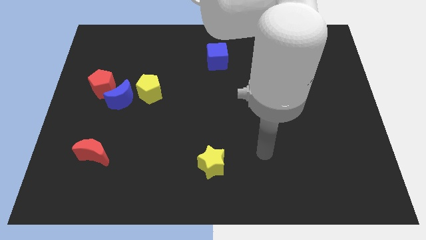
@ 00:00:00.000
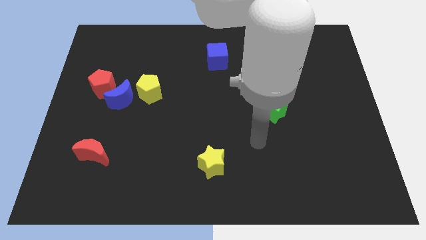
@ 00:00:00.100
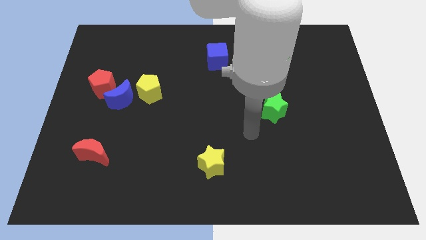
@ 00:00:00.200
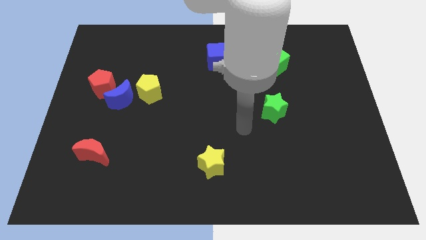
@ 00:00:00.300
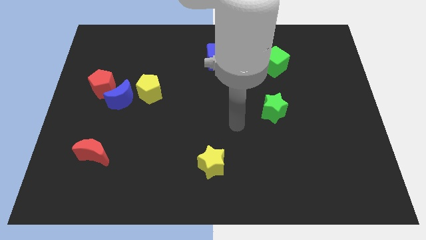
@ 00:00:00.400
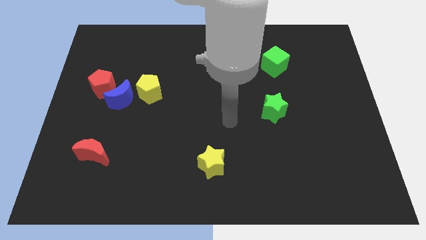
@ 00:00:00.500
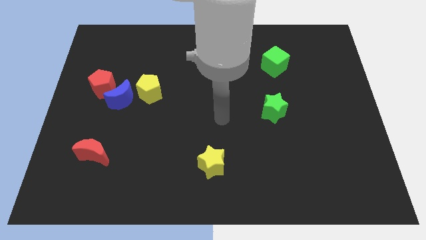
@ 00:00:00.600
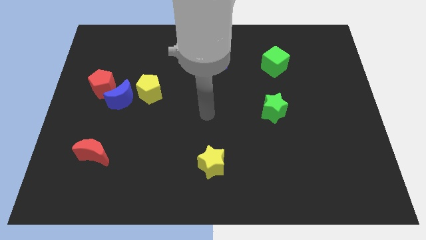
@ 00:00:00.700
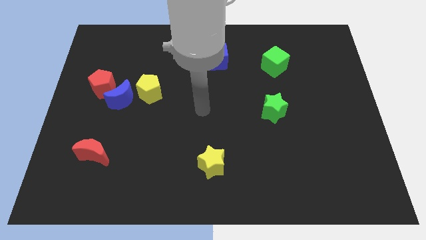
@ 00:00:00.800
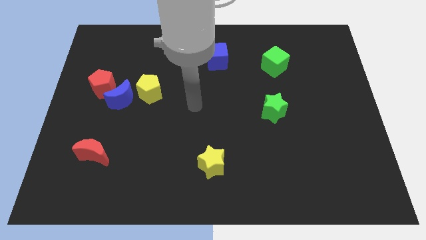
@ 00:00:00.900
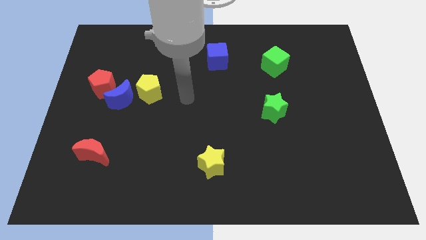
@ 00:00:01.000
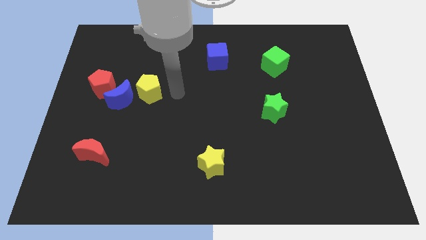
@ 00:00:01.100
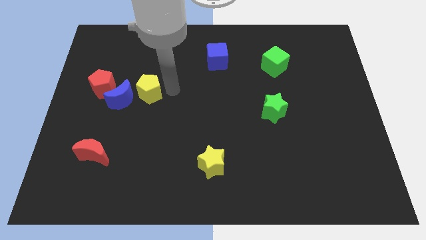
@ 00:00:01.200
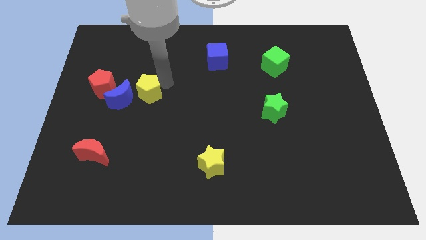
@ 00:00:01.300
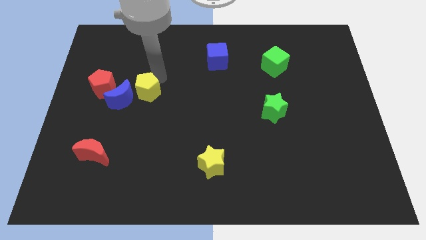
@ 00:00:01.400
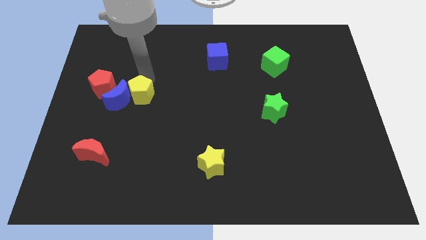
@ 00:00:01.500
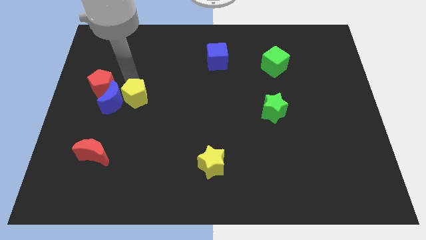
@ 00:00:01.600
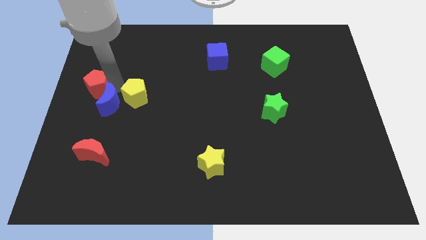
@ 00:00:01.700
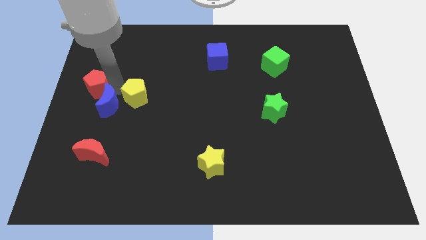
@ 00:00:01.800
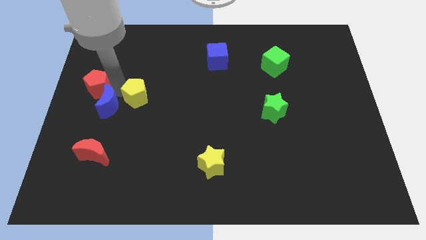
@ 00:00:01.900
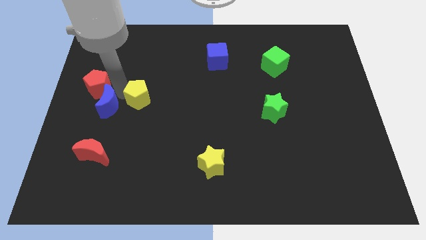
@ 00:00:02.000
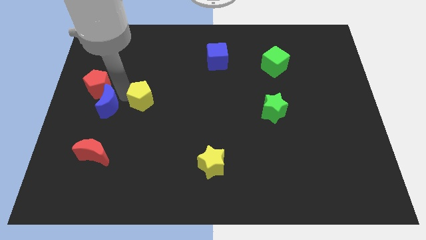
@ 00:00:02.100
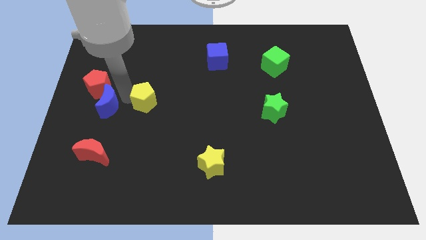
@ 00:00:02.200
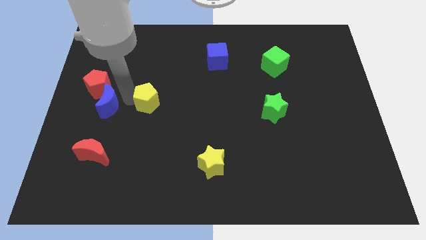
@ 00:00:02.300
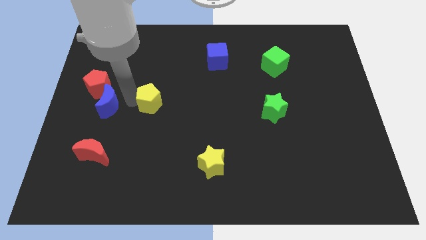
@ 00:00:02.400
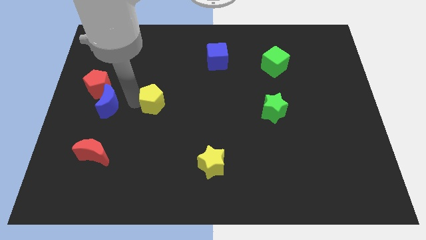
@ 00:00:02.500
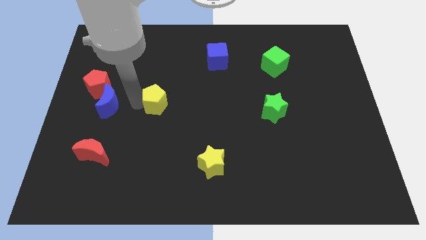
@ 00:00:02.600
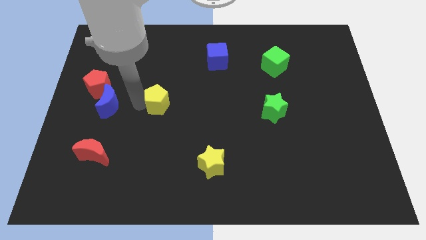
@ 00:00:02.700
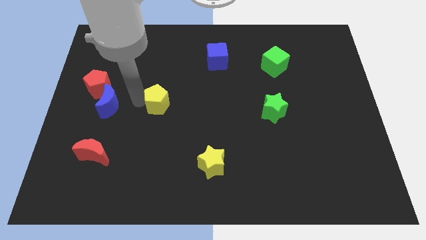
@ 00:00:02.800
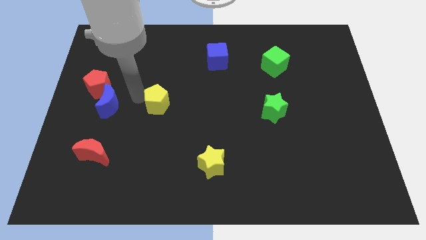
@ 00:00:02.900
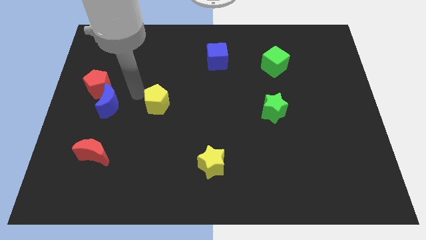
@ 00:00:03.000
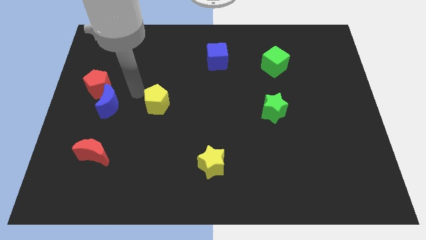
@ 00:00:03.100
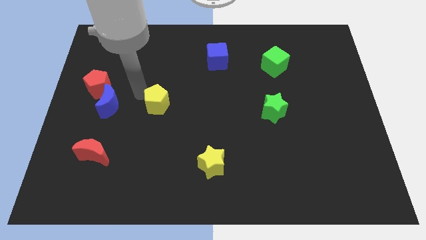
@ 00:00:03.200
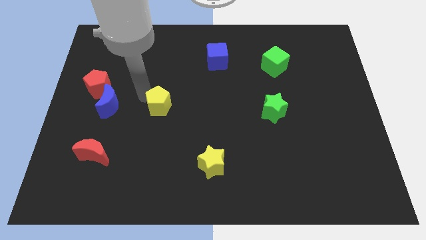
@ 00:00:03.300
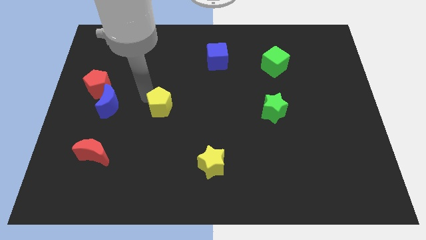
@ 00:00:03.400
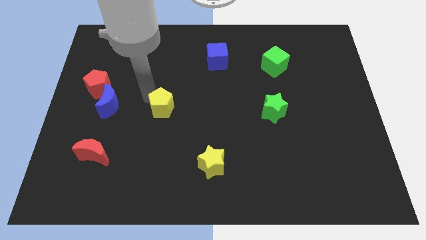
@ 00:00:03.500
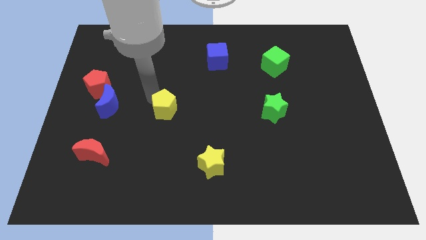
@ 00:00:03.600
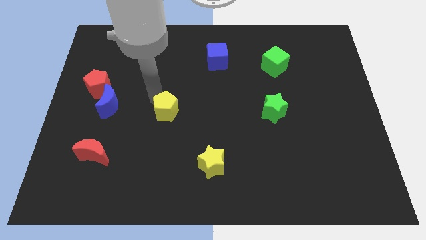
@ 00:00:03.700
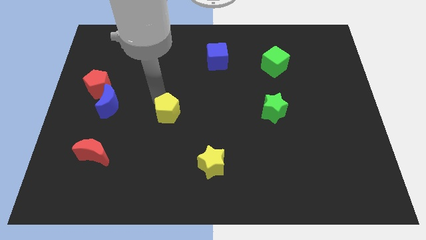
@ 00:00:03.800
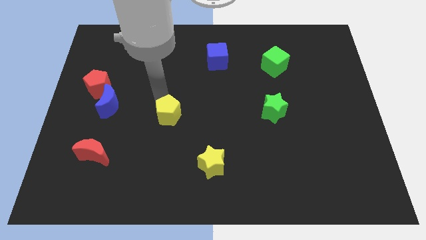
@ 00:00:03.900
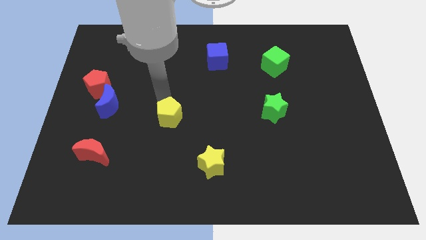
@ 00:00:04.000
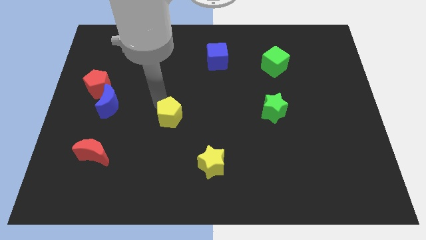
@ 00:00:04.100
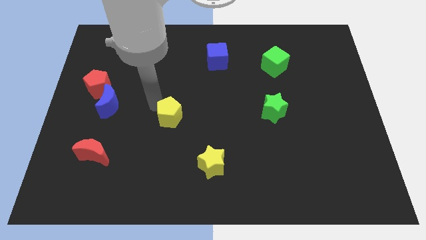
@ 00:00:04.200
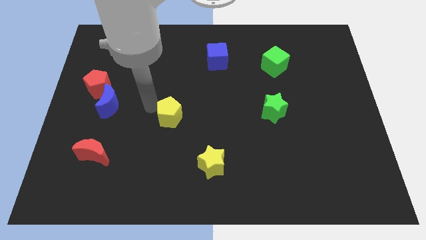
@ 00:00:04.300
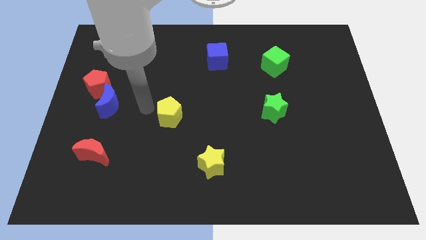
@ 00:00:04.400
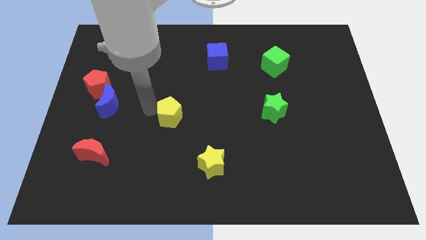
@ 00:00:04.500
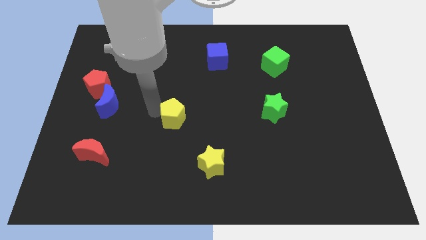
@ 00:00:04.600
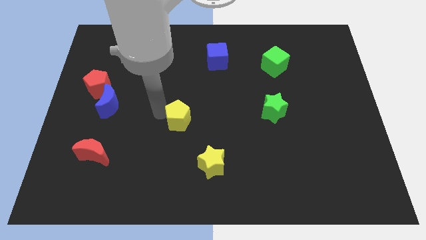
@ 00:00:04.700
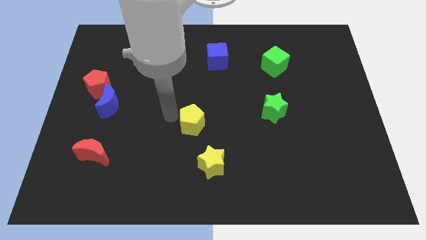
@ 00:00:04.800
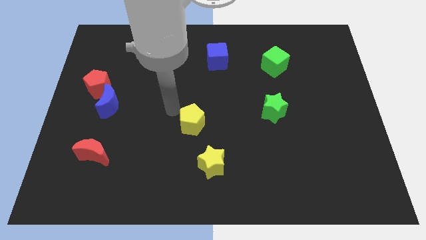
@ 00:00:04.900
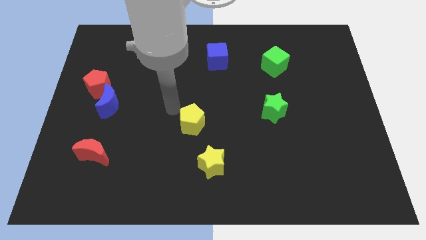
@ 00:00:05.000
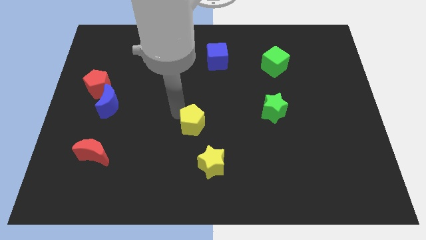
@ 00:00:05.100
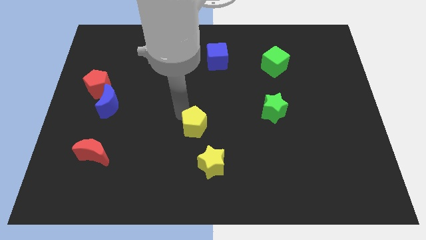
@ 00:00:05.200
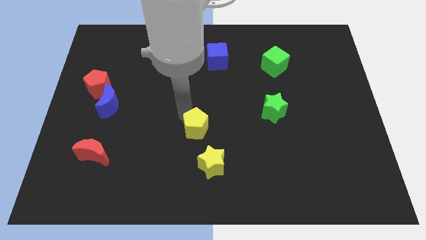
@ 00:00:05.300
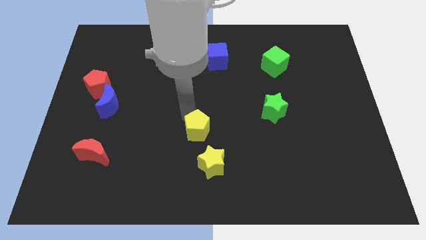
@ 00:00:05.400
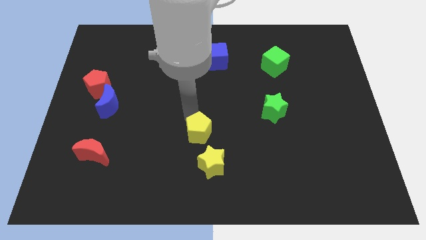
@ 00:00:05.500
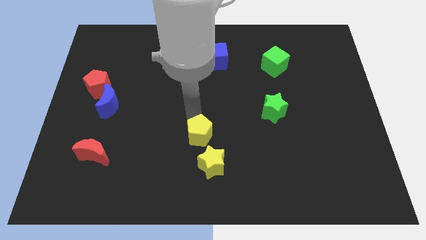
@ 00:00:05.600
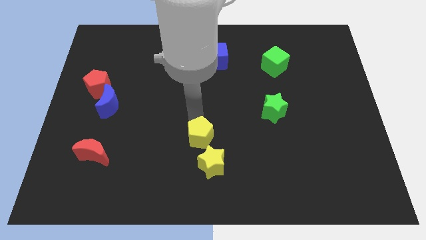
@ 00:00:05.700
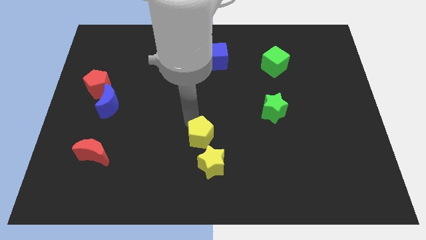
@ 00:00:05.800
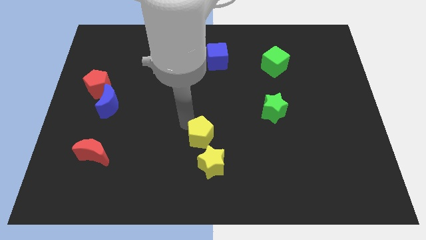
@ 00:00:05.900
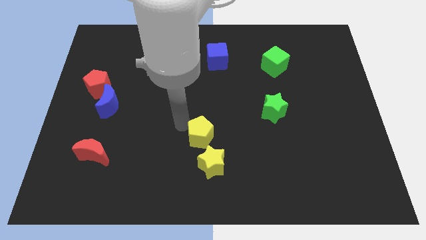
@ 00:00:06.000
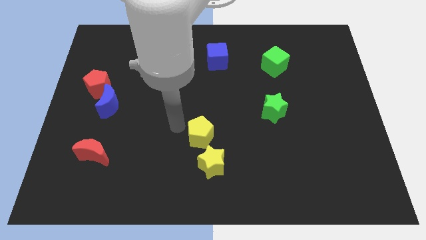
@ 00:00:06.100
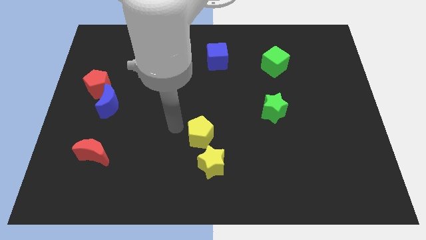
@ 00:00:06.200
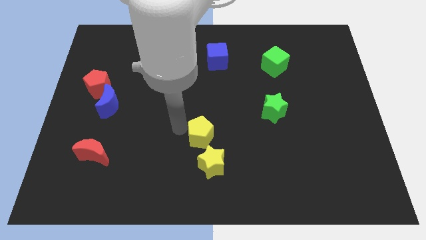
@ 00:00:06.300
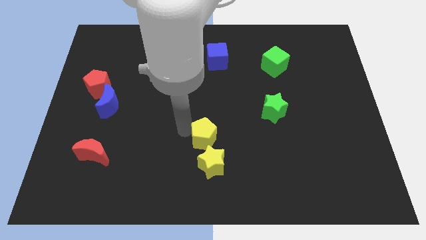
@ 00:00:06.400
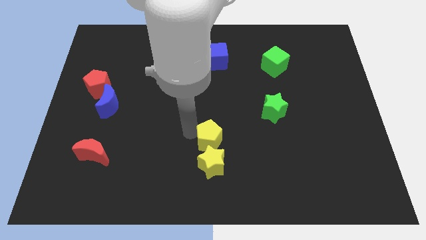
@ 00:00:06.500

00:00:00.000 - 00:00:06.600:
move the yellow pentagon downwards and right diagonally

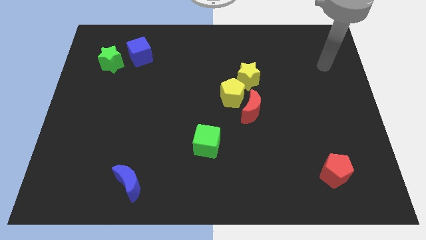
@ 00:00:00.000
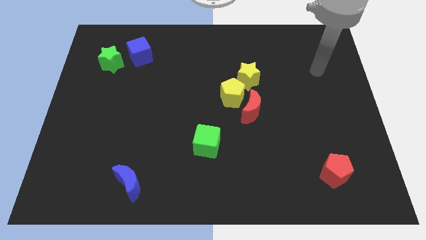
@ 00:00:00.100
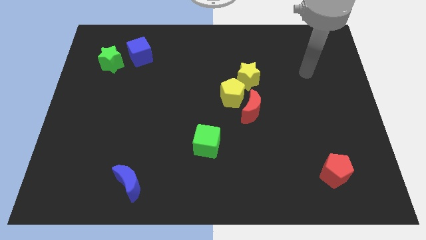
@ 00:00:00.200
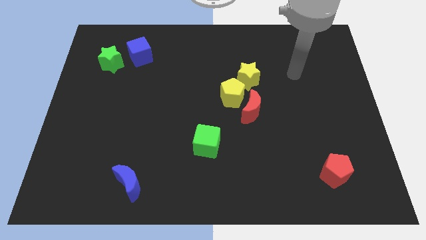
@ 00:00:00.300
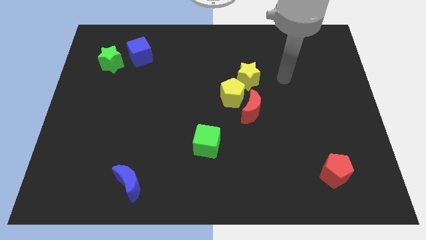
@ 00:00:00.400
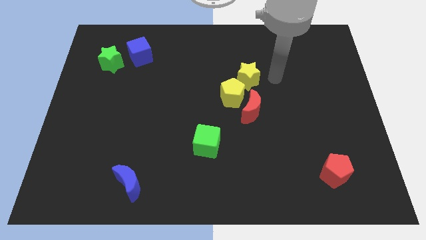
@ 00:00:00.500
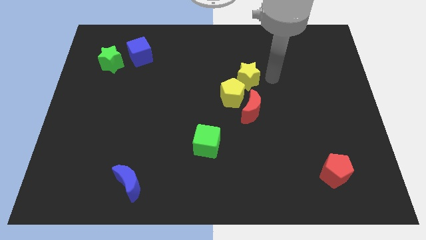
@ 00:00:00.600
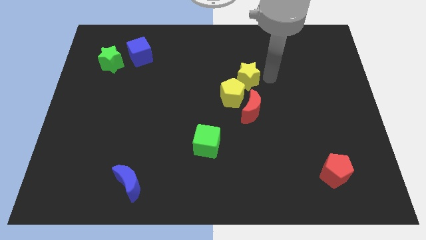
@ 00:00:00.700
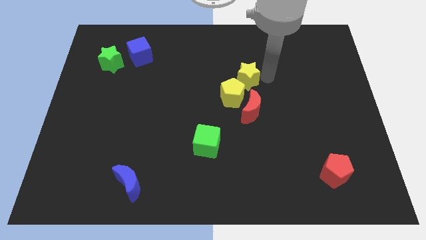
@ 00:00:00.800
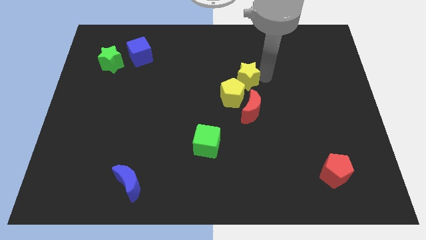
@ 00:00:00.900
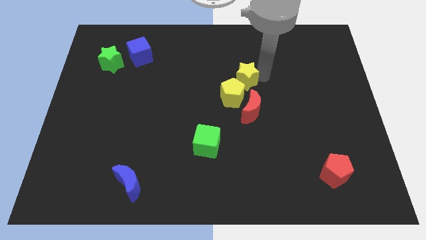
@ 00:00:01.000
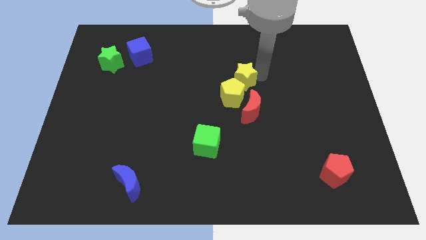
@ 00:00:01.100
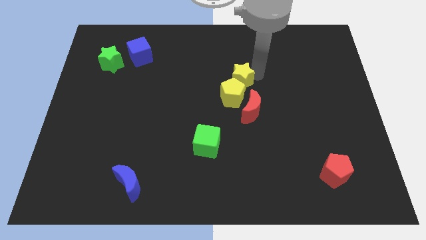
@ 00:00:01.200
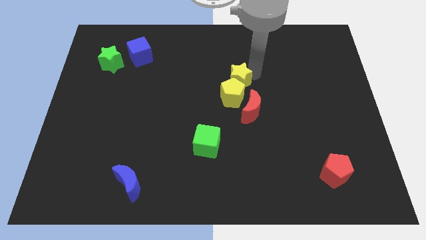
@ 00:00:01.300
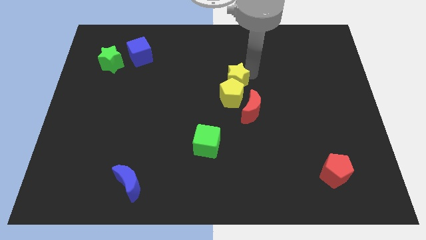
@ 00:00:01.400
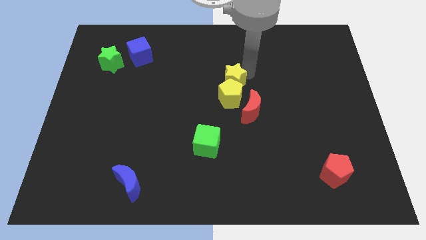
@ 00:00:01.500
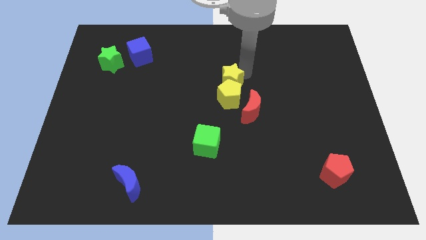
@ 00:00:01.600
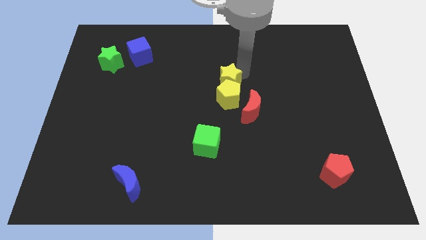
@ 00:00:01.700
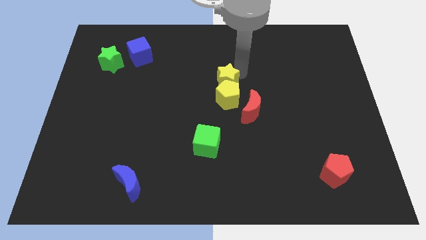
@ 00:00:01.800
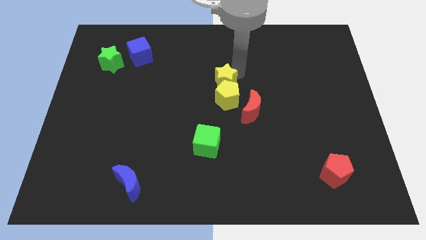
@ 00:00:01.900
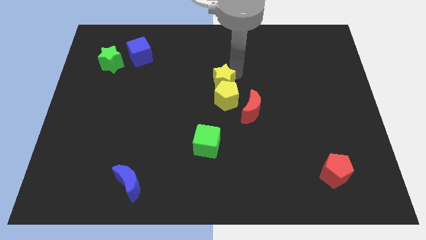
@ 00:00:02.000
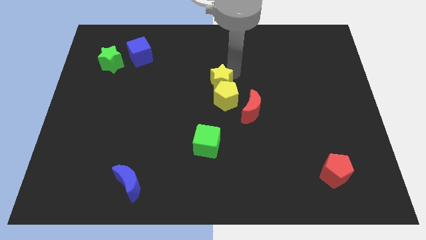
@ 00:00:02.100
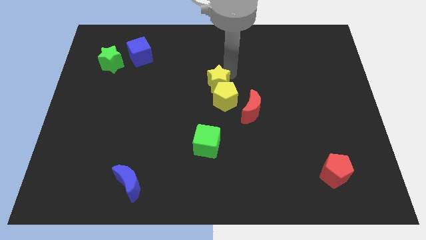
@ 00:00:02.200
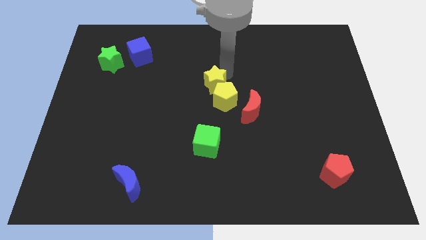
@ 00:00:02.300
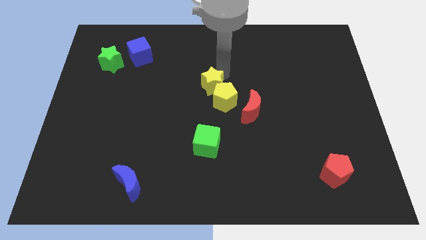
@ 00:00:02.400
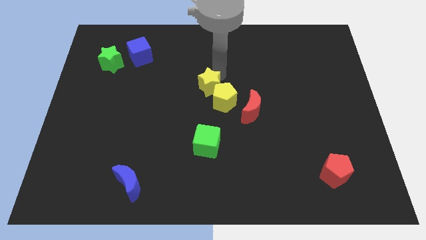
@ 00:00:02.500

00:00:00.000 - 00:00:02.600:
move the yellow star down and then left a little bit
